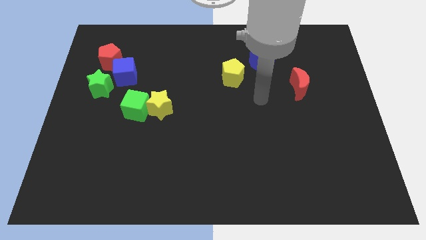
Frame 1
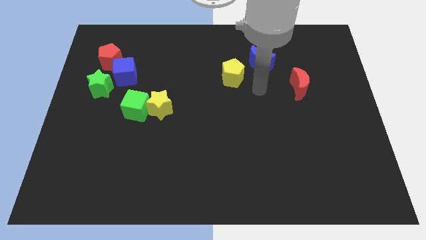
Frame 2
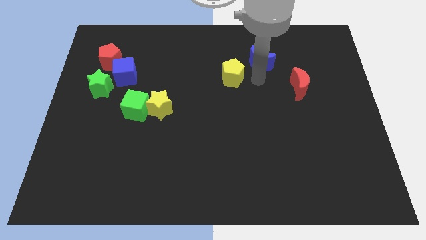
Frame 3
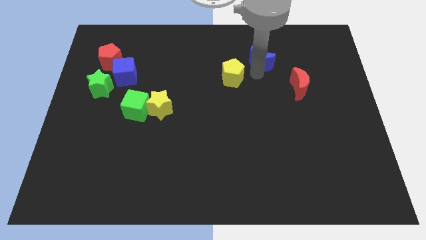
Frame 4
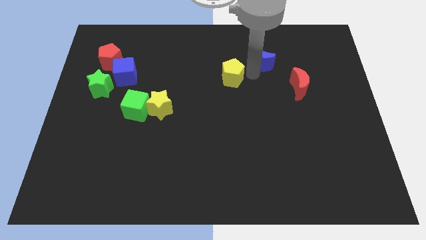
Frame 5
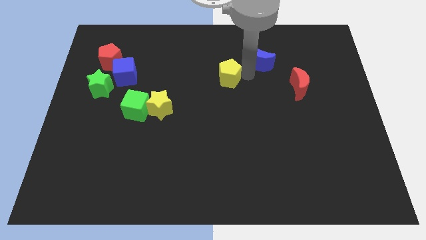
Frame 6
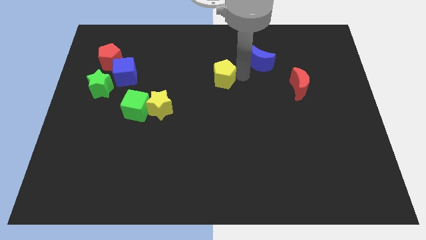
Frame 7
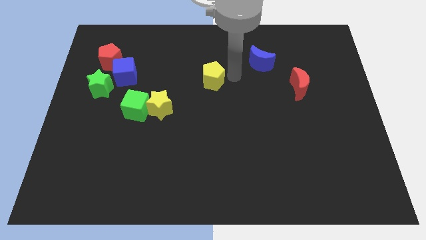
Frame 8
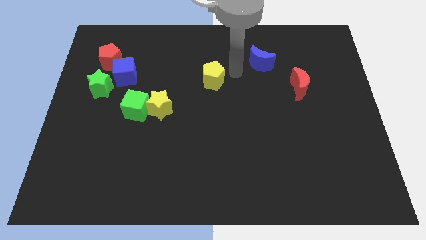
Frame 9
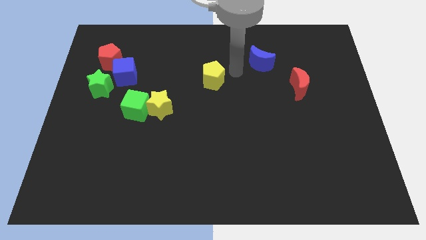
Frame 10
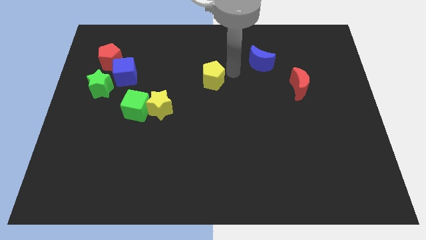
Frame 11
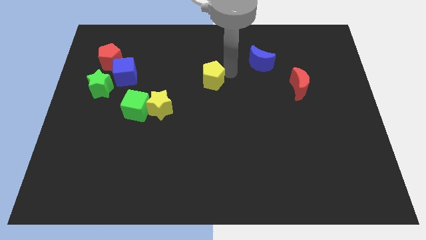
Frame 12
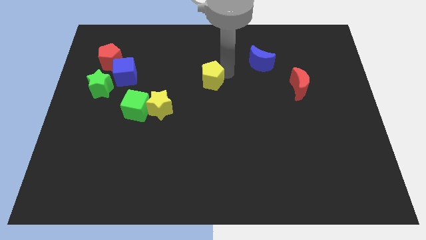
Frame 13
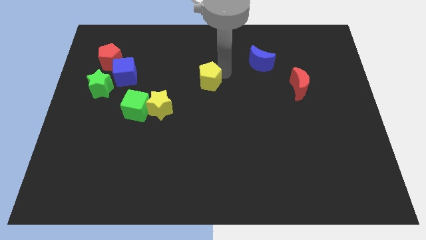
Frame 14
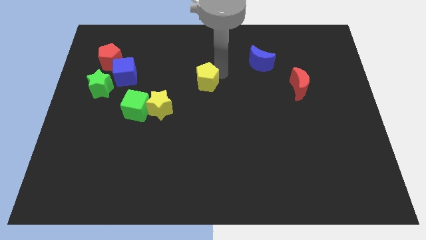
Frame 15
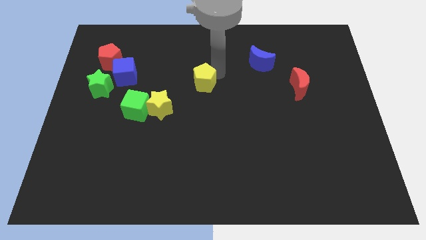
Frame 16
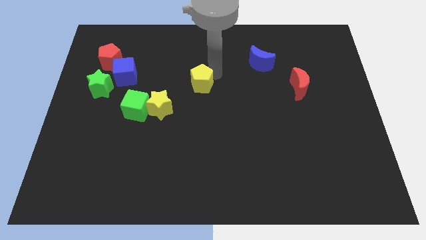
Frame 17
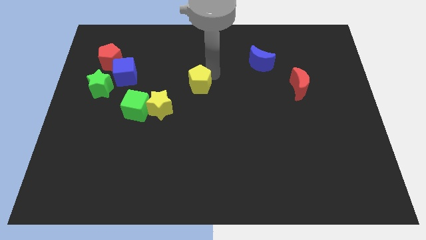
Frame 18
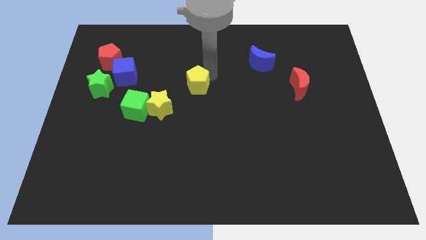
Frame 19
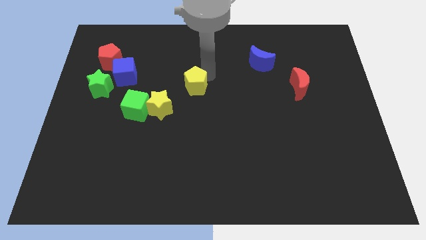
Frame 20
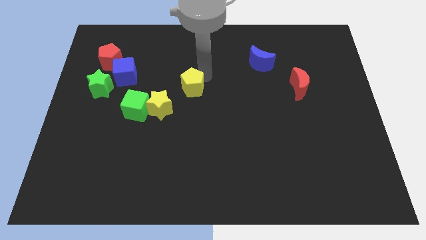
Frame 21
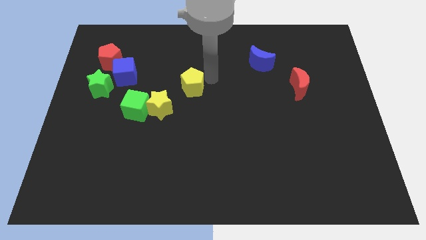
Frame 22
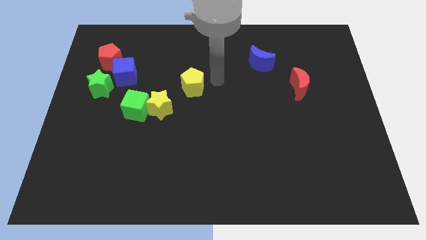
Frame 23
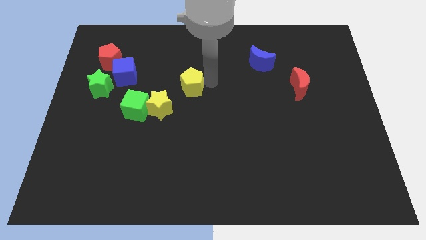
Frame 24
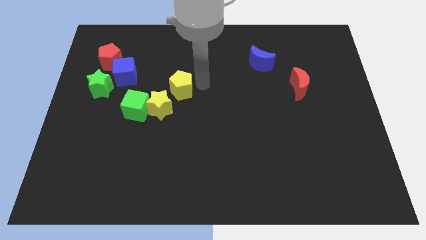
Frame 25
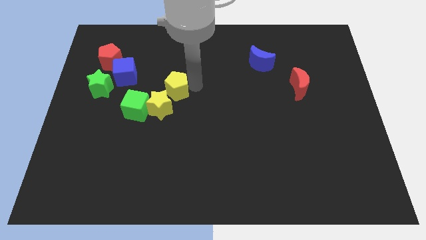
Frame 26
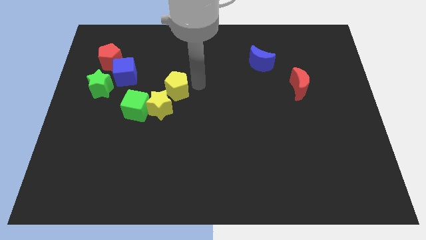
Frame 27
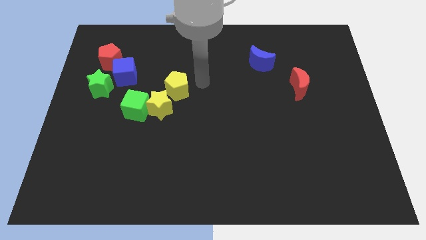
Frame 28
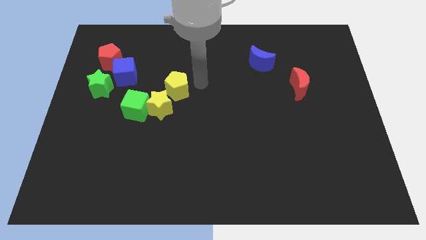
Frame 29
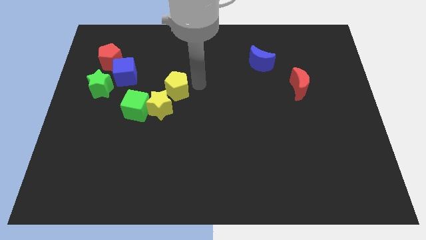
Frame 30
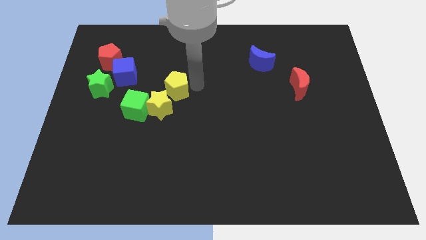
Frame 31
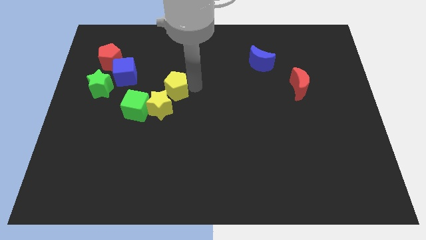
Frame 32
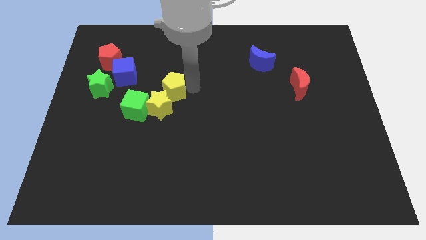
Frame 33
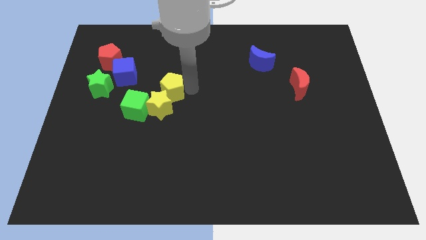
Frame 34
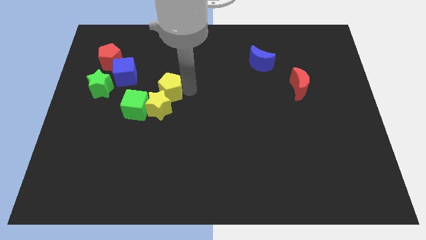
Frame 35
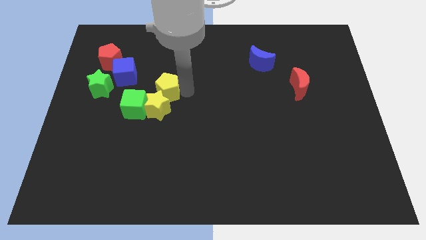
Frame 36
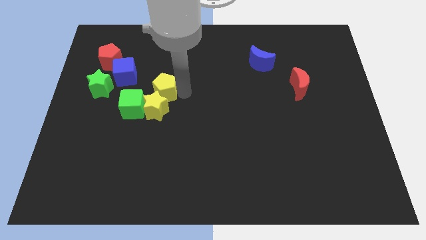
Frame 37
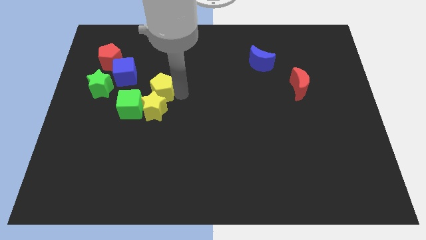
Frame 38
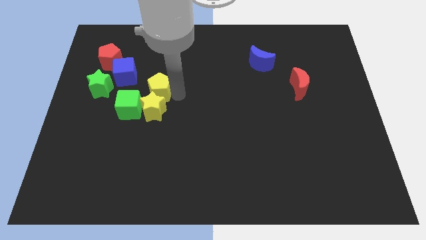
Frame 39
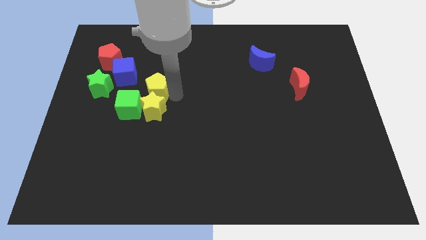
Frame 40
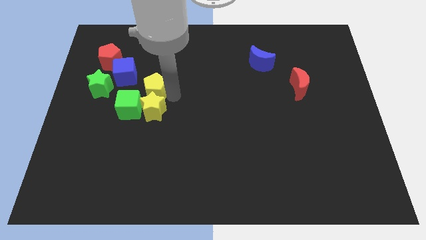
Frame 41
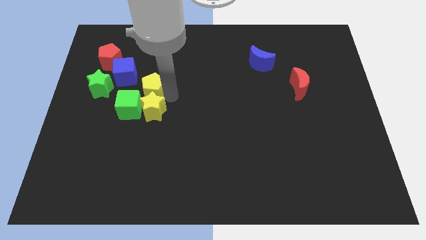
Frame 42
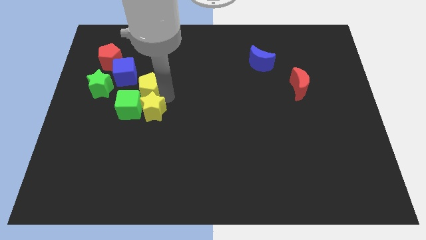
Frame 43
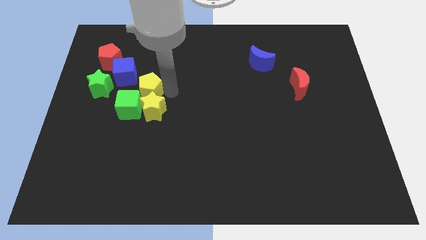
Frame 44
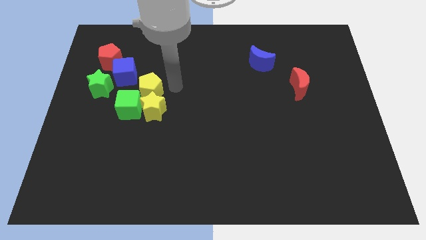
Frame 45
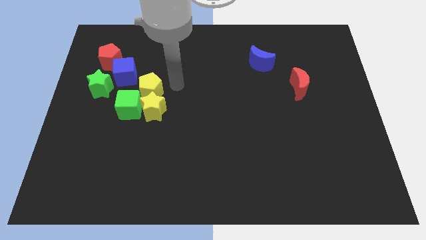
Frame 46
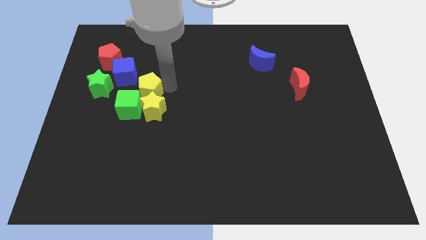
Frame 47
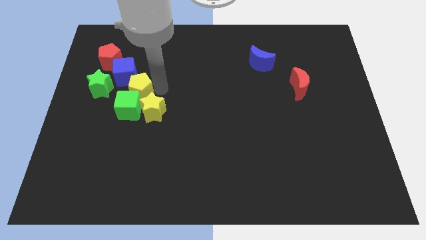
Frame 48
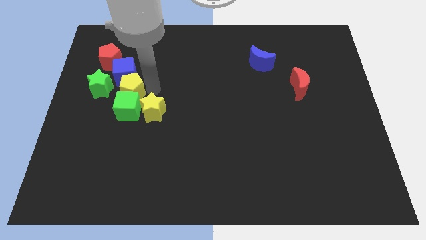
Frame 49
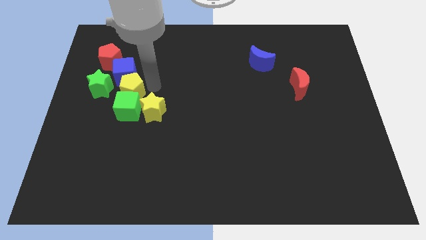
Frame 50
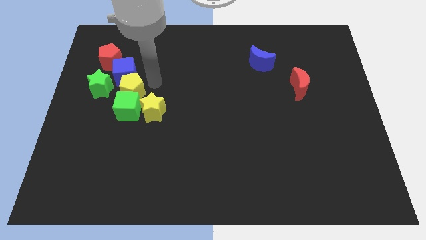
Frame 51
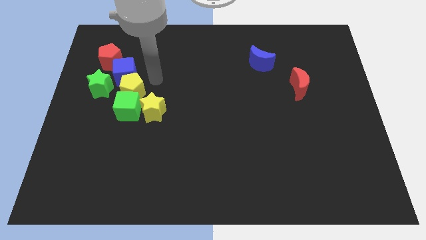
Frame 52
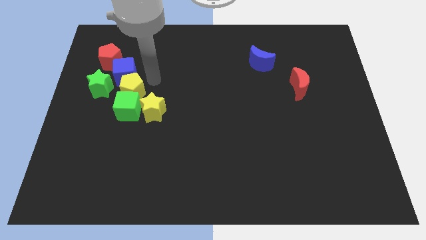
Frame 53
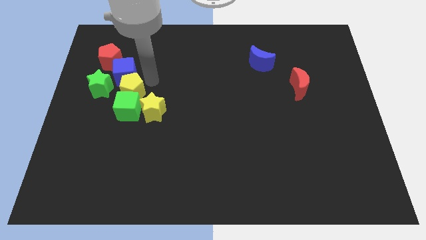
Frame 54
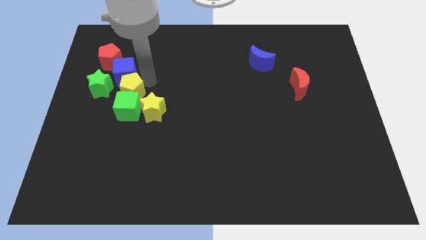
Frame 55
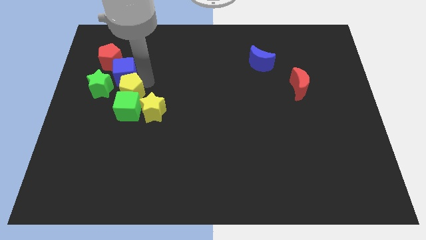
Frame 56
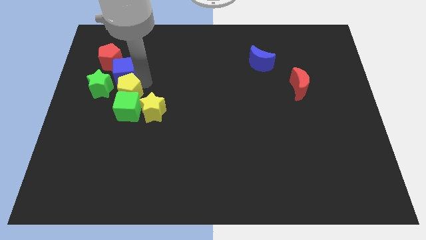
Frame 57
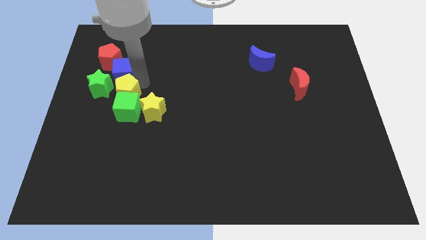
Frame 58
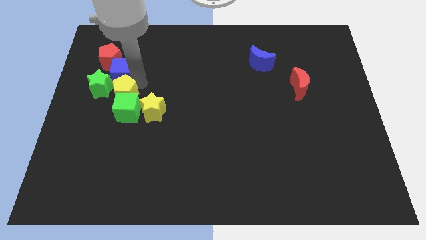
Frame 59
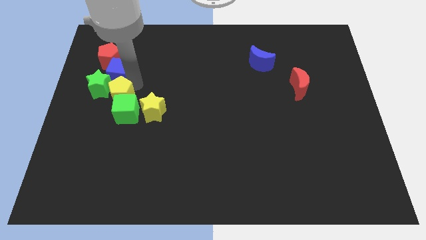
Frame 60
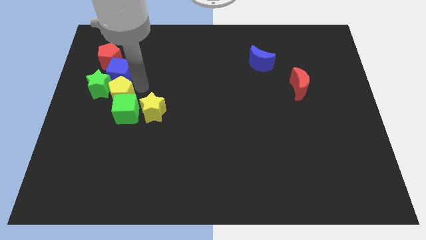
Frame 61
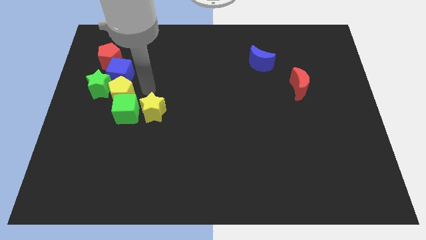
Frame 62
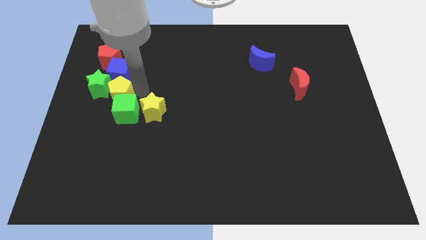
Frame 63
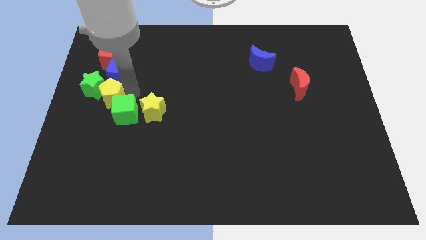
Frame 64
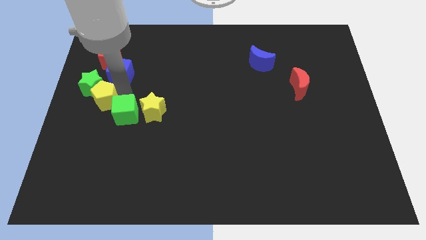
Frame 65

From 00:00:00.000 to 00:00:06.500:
put the yellow pentagon to the left side
